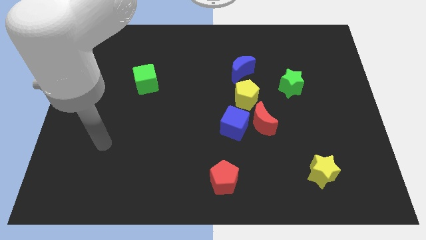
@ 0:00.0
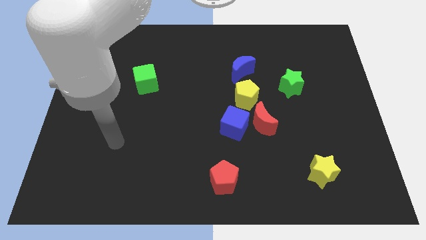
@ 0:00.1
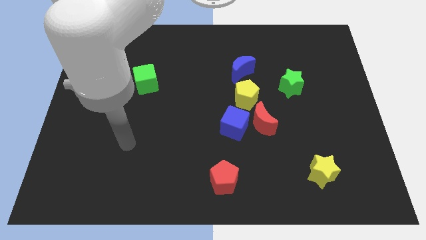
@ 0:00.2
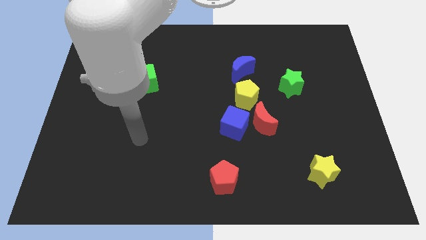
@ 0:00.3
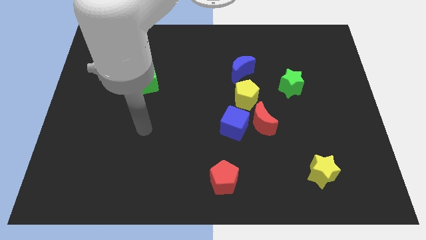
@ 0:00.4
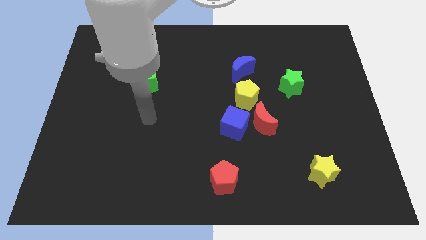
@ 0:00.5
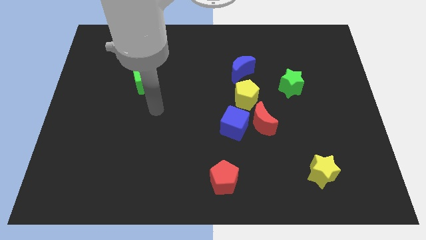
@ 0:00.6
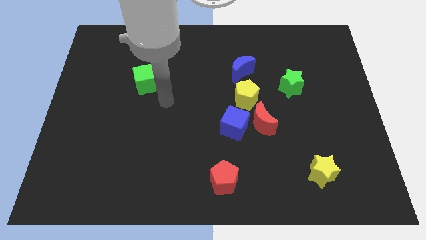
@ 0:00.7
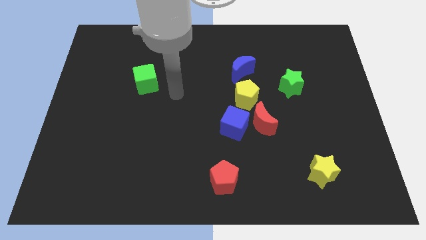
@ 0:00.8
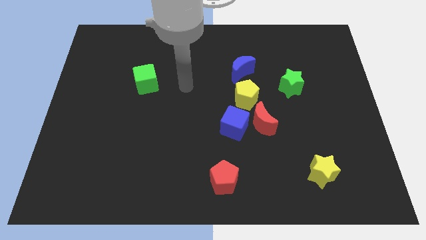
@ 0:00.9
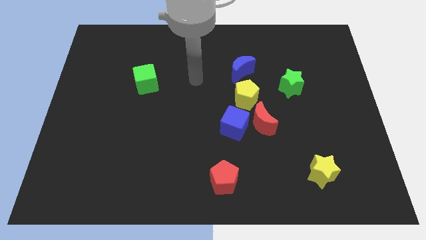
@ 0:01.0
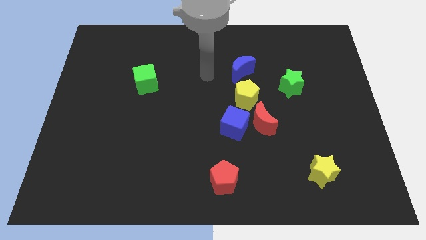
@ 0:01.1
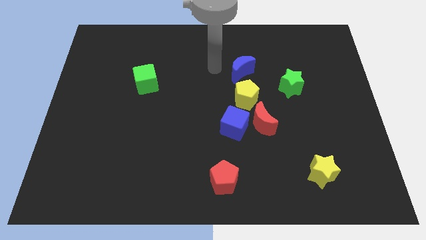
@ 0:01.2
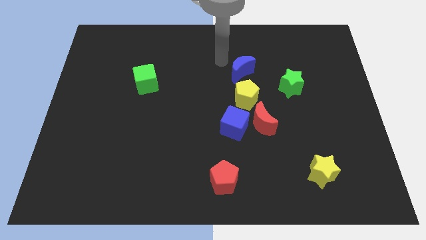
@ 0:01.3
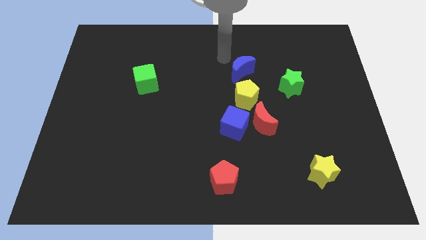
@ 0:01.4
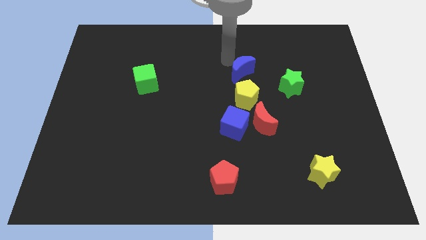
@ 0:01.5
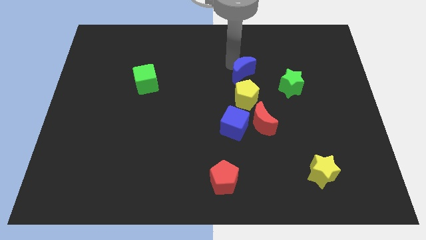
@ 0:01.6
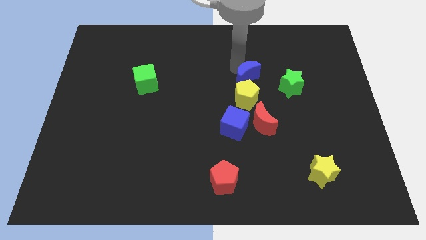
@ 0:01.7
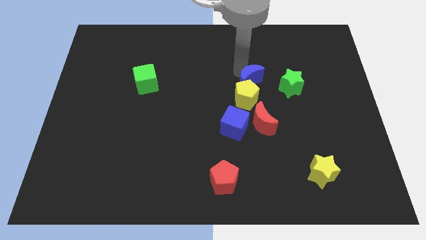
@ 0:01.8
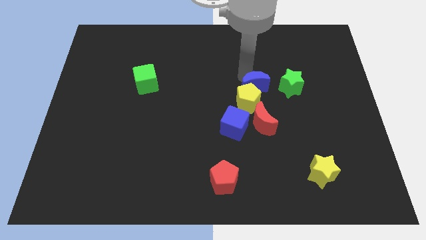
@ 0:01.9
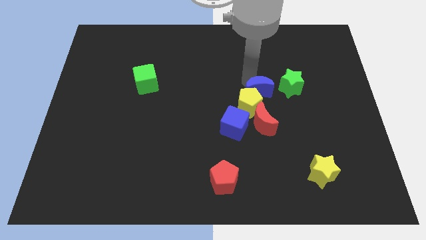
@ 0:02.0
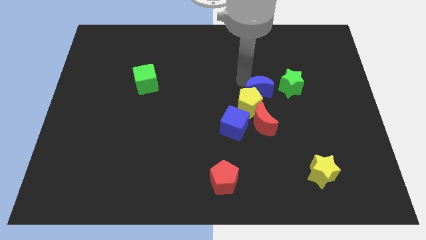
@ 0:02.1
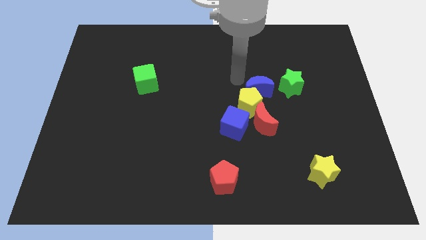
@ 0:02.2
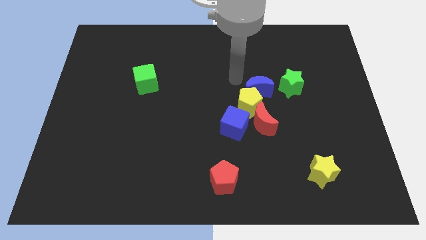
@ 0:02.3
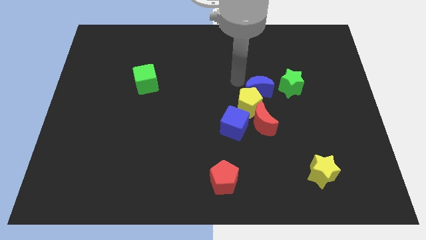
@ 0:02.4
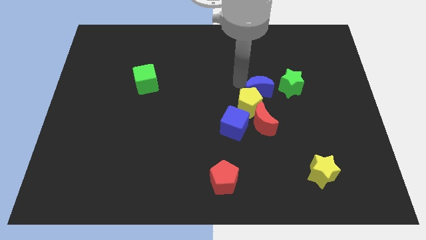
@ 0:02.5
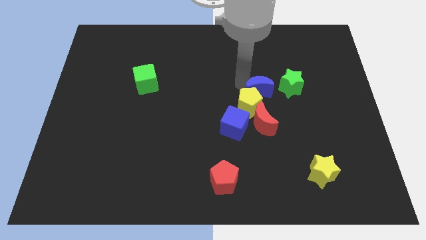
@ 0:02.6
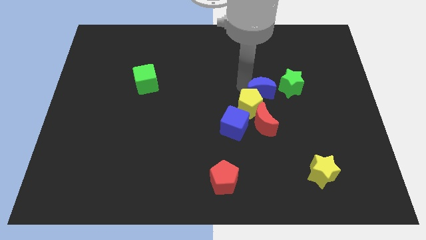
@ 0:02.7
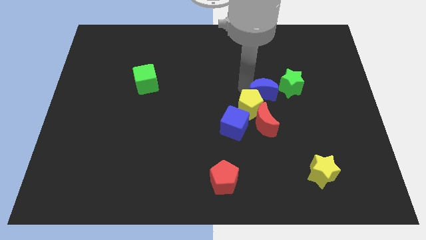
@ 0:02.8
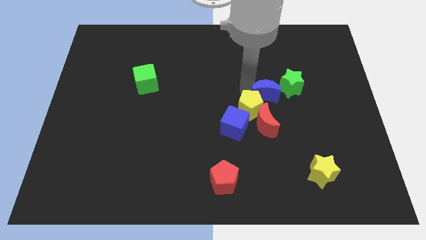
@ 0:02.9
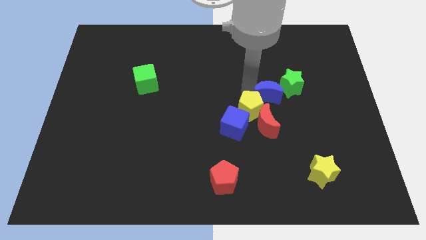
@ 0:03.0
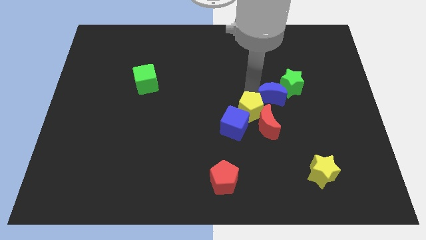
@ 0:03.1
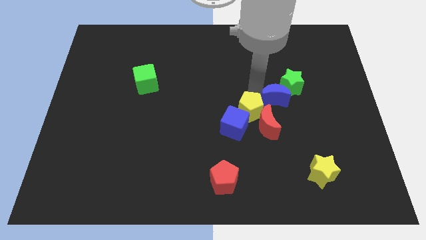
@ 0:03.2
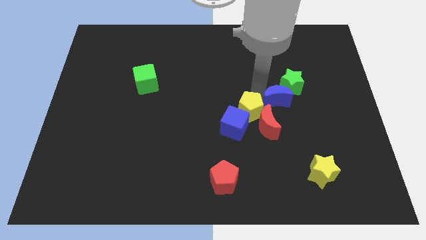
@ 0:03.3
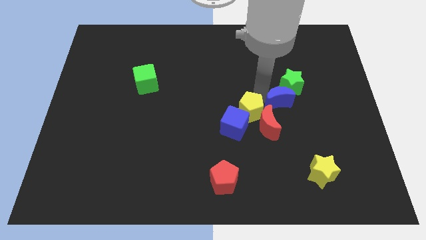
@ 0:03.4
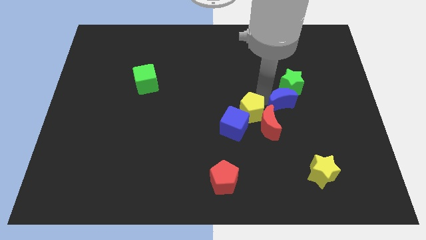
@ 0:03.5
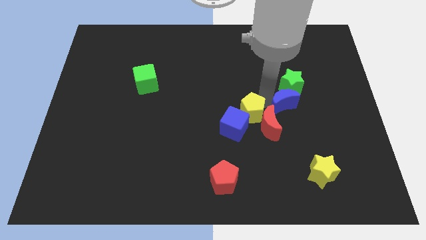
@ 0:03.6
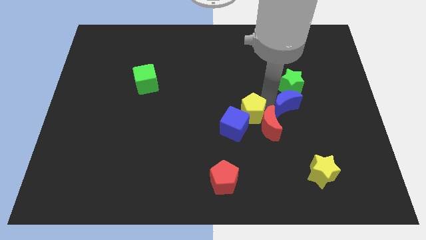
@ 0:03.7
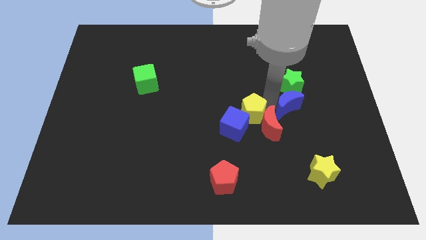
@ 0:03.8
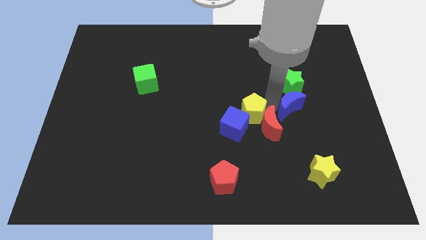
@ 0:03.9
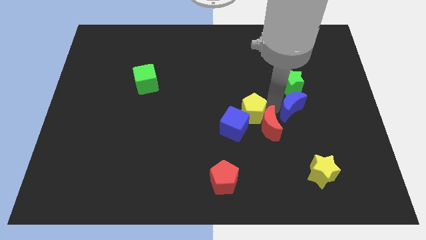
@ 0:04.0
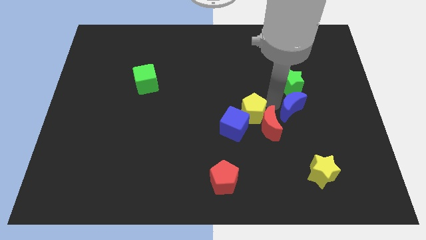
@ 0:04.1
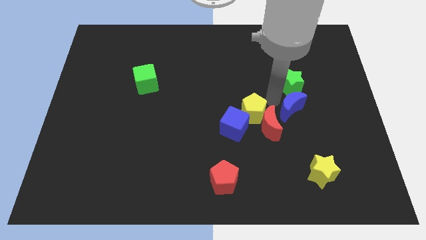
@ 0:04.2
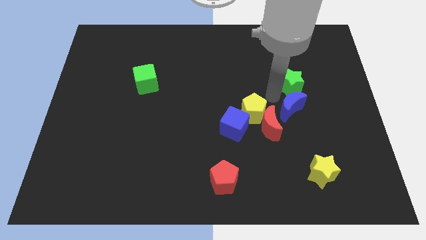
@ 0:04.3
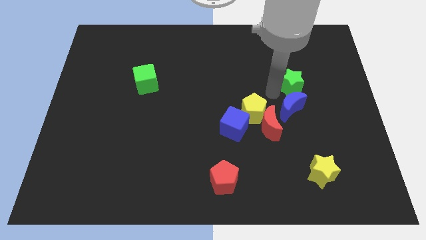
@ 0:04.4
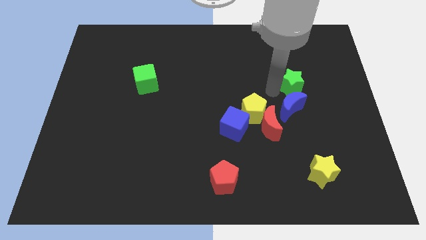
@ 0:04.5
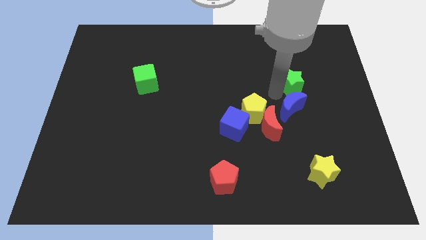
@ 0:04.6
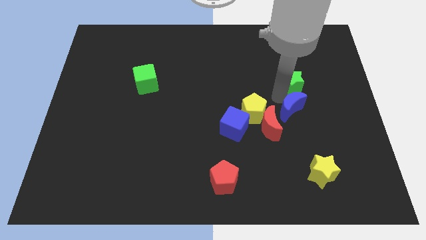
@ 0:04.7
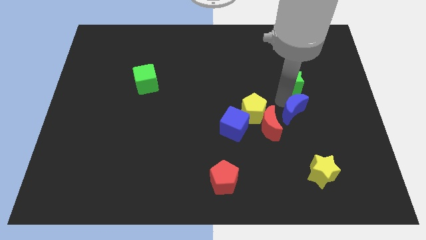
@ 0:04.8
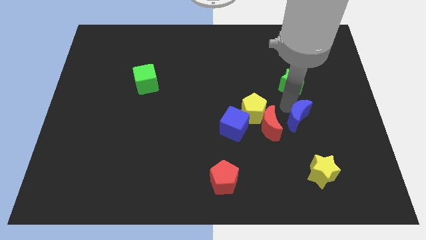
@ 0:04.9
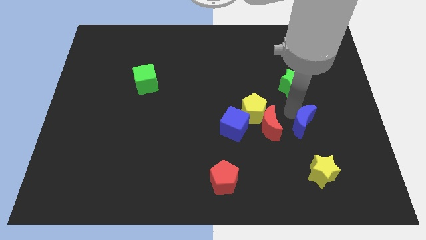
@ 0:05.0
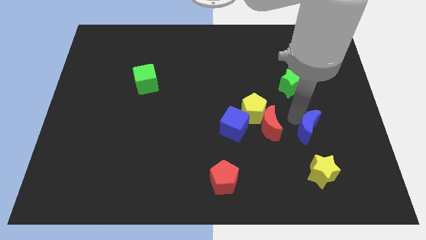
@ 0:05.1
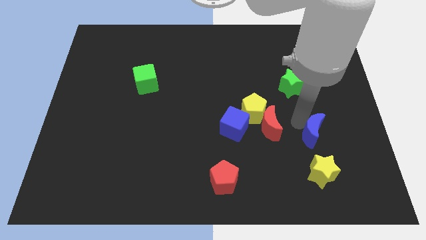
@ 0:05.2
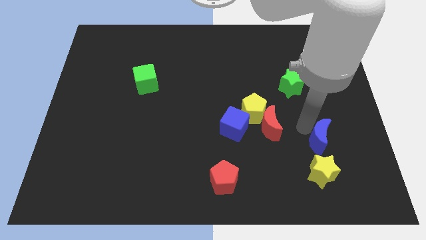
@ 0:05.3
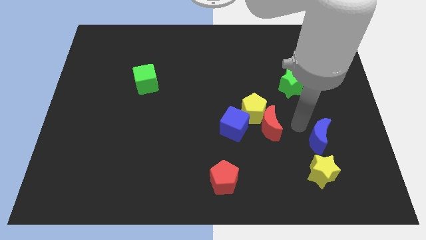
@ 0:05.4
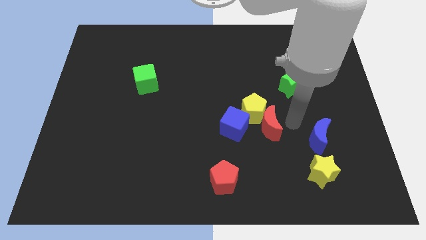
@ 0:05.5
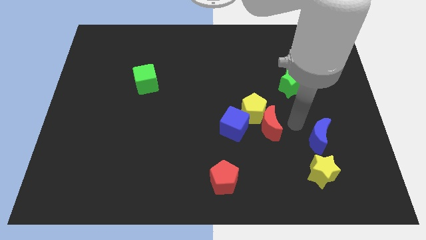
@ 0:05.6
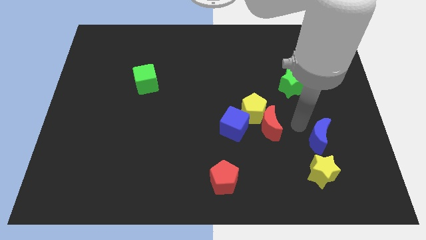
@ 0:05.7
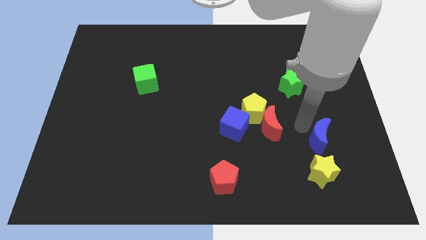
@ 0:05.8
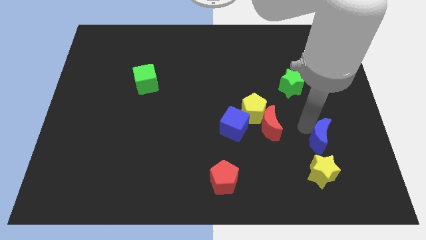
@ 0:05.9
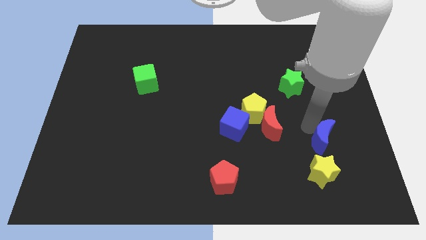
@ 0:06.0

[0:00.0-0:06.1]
put the blue moon to the top right of the yellow star

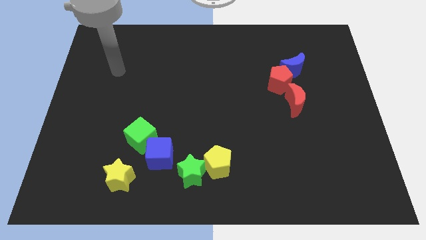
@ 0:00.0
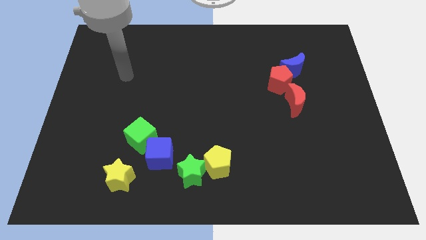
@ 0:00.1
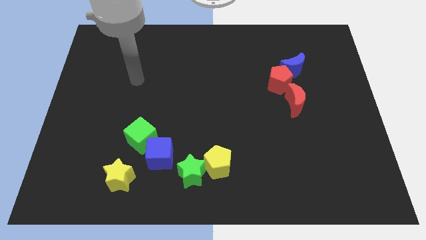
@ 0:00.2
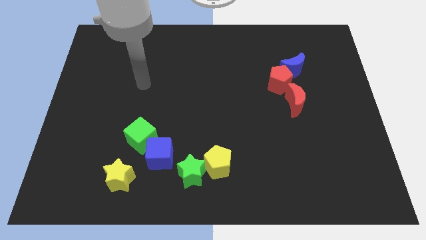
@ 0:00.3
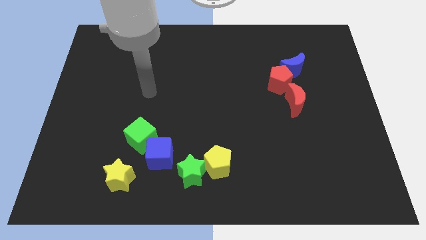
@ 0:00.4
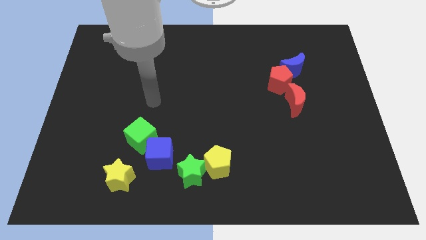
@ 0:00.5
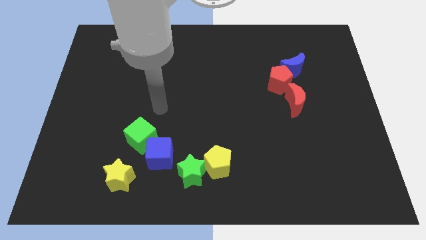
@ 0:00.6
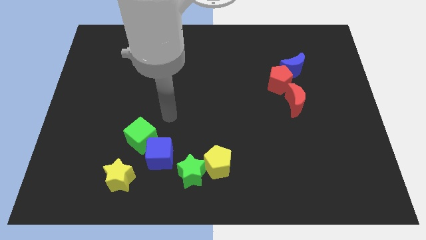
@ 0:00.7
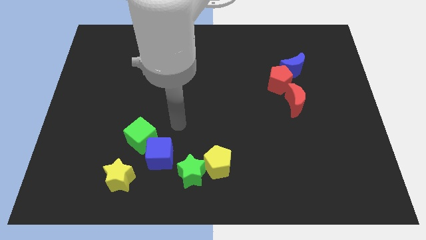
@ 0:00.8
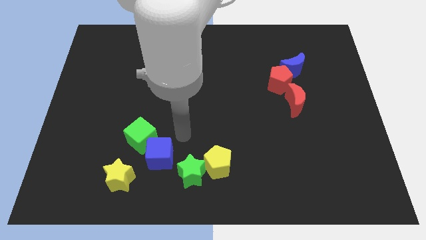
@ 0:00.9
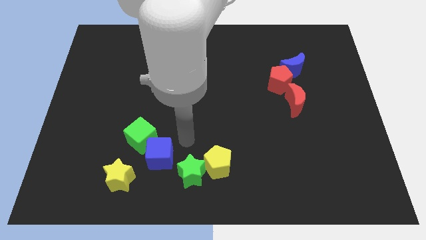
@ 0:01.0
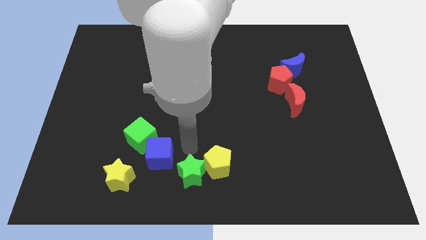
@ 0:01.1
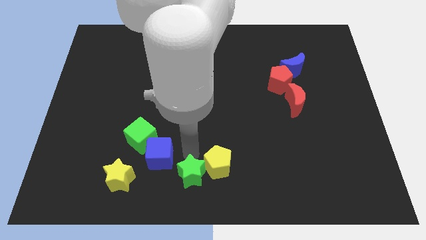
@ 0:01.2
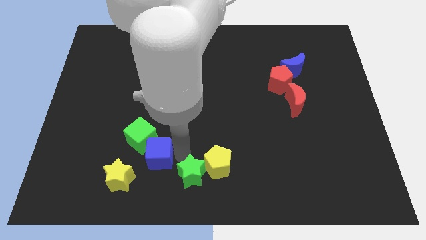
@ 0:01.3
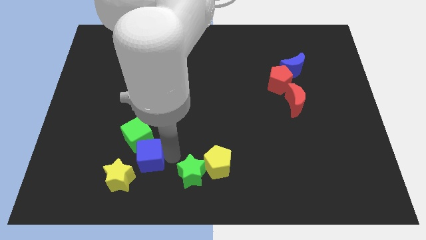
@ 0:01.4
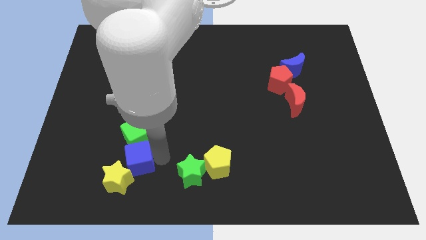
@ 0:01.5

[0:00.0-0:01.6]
push the blue cube diagonally down and to the left of the green cube
